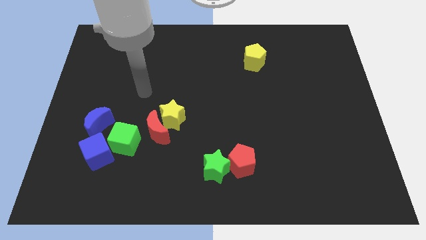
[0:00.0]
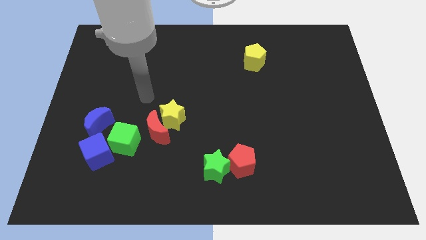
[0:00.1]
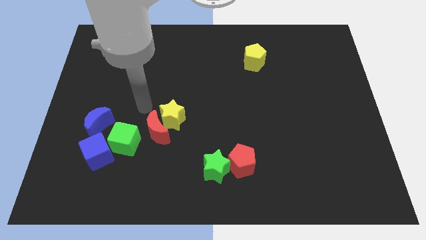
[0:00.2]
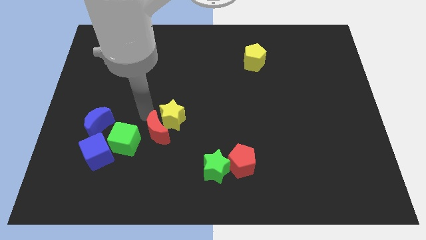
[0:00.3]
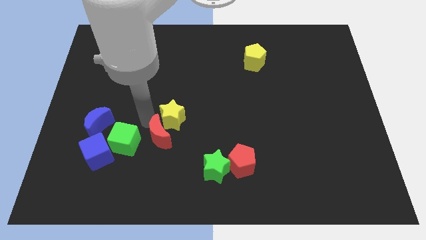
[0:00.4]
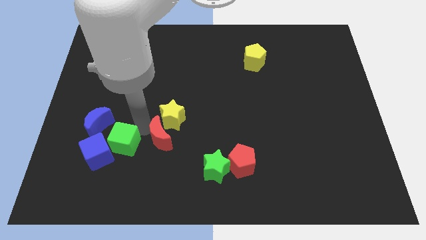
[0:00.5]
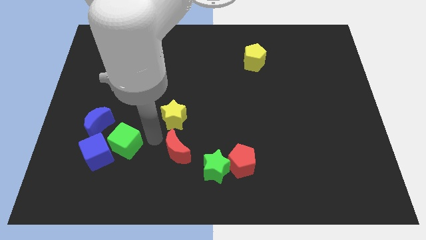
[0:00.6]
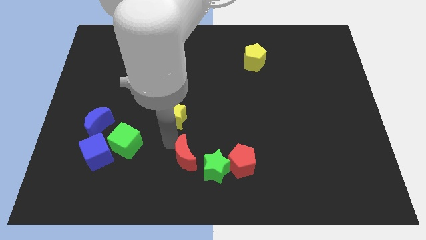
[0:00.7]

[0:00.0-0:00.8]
pull the yellow star apart from the red moon

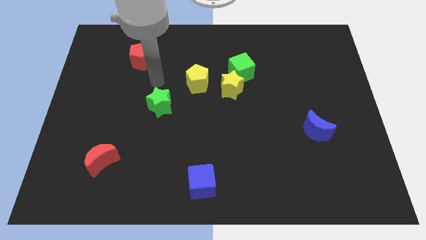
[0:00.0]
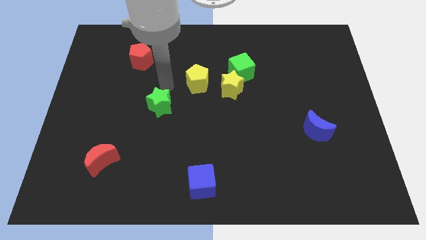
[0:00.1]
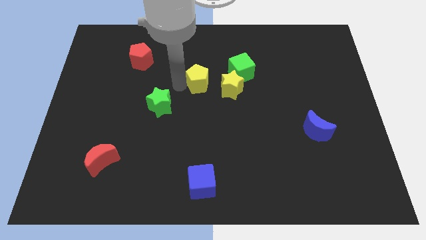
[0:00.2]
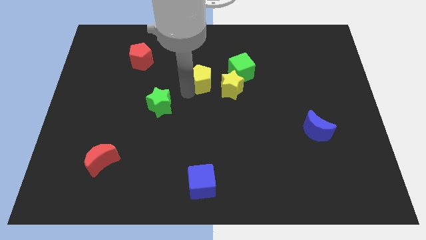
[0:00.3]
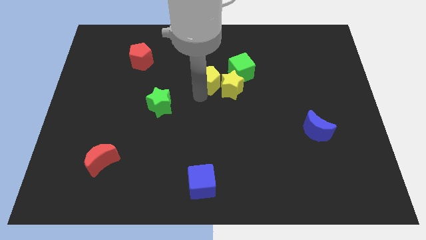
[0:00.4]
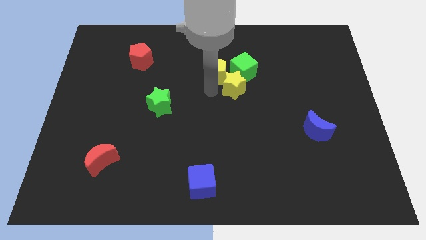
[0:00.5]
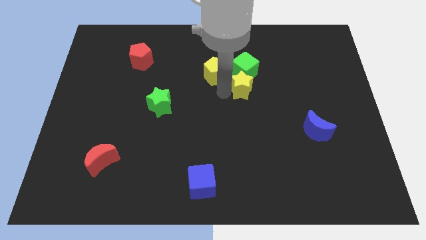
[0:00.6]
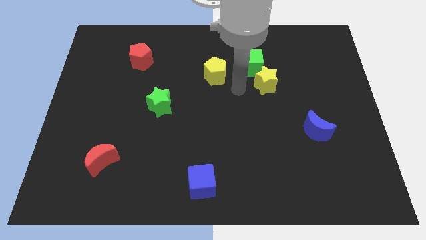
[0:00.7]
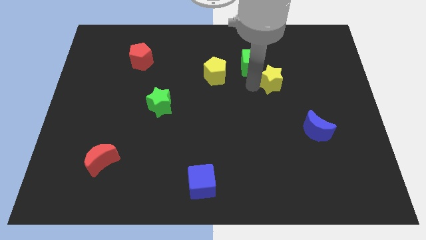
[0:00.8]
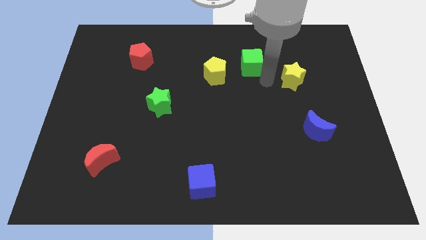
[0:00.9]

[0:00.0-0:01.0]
pull the green cube apart from the yellow star

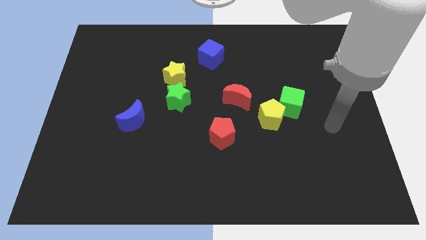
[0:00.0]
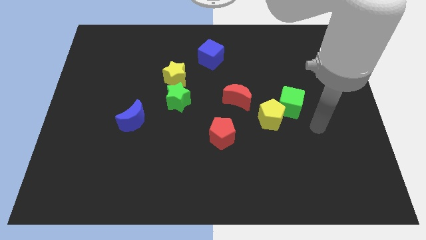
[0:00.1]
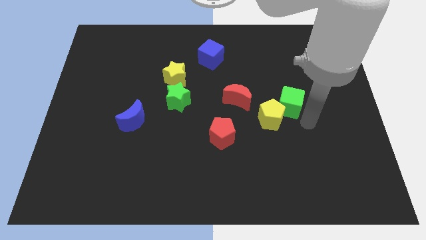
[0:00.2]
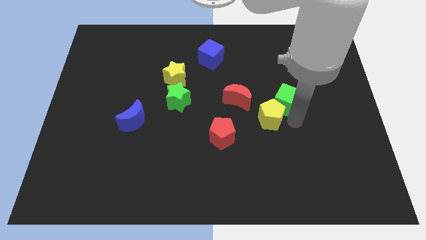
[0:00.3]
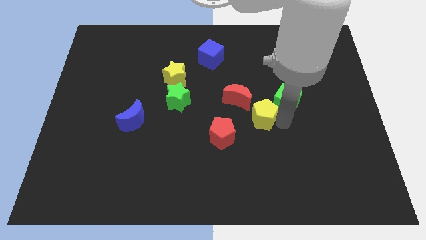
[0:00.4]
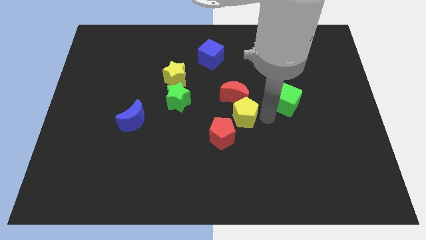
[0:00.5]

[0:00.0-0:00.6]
move the green cube away from the yellow pentagon

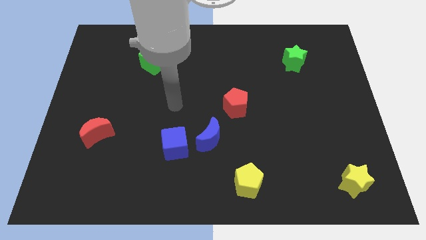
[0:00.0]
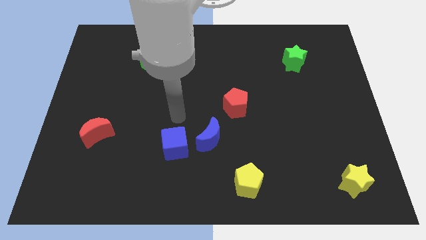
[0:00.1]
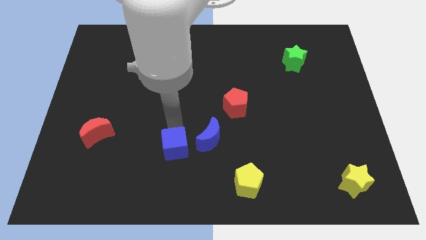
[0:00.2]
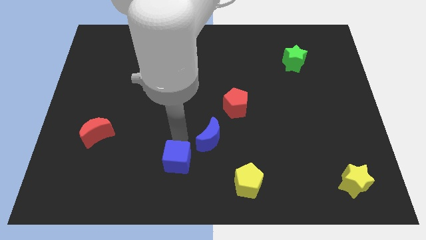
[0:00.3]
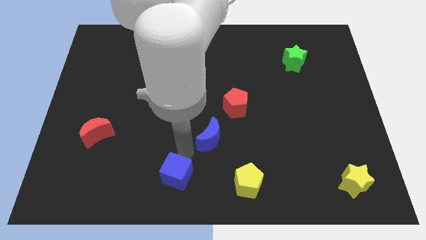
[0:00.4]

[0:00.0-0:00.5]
pull the blue moon apart from the blue cube

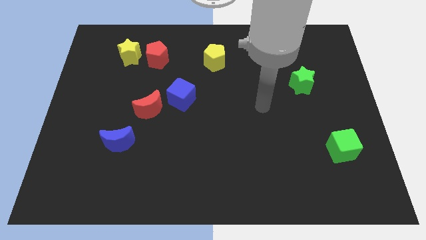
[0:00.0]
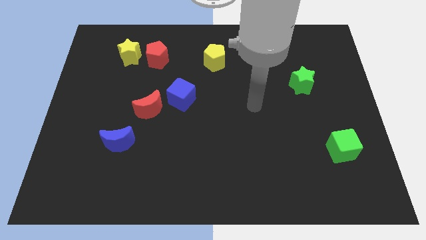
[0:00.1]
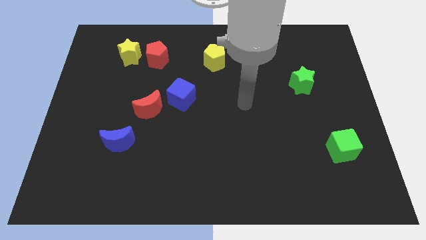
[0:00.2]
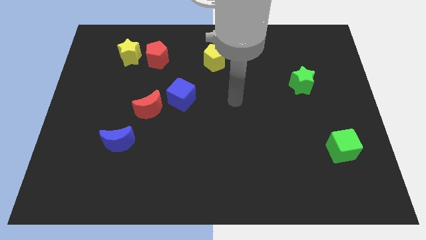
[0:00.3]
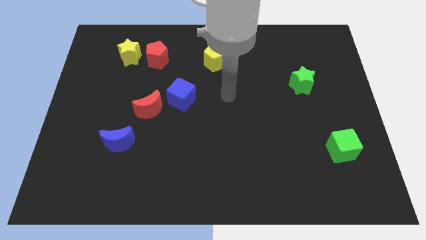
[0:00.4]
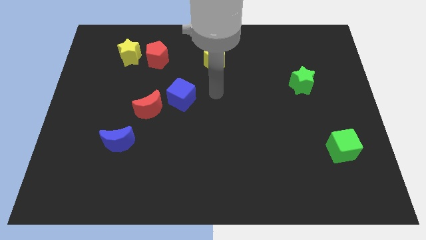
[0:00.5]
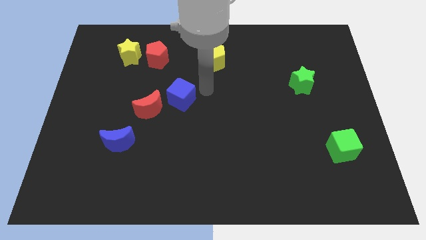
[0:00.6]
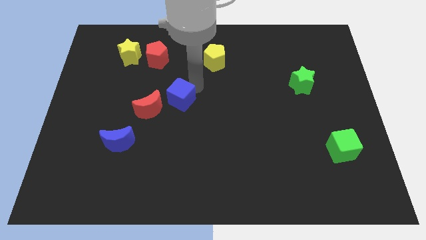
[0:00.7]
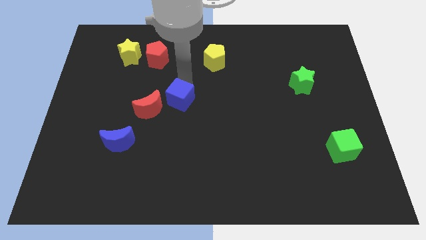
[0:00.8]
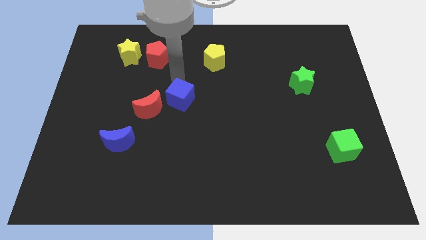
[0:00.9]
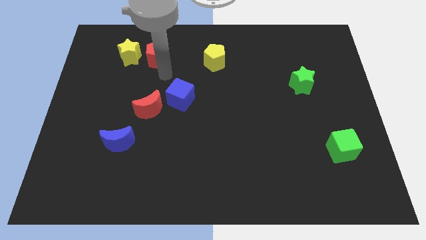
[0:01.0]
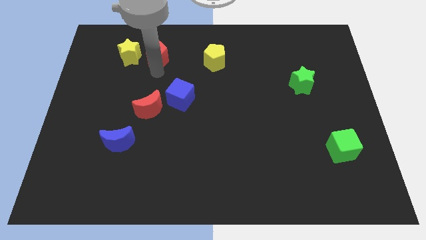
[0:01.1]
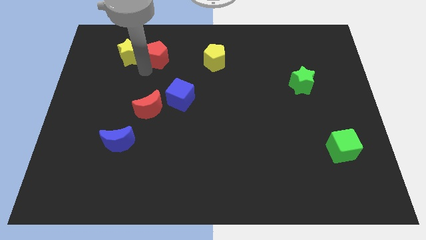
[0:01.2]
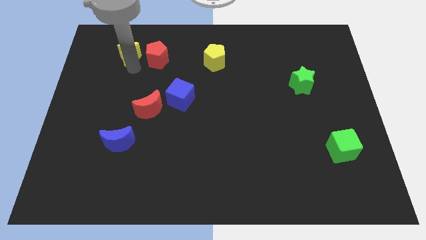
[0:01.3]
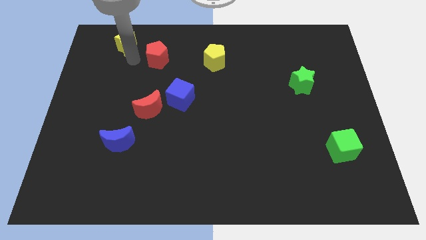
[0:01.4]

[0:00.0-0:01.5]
separate the red pentagon from the yellow star

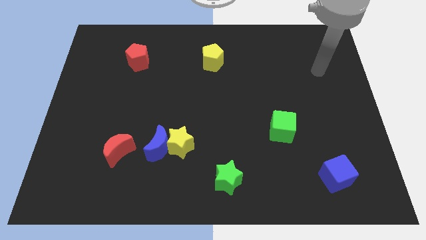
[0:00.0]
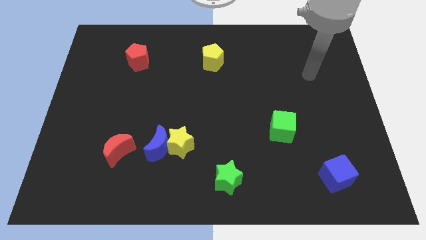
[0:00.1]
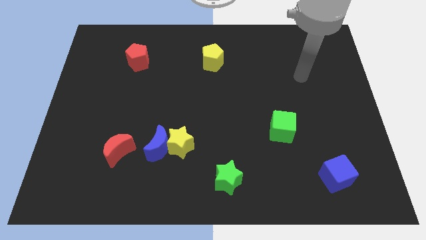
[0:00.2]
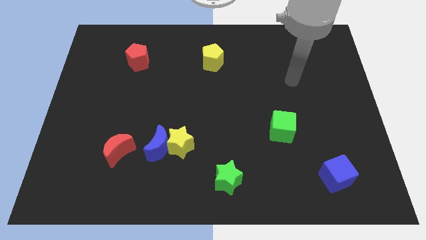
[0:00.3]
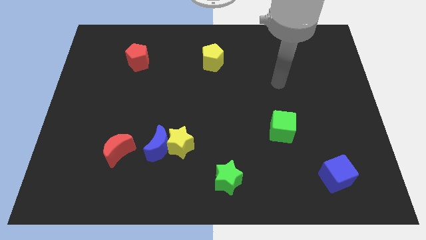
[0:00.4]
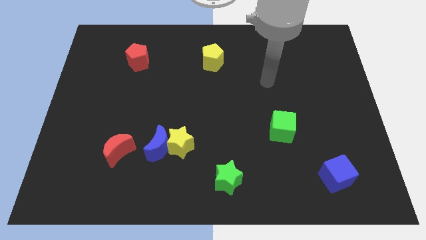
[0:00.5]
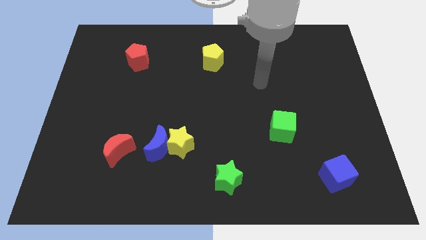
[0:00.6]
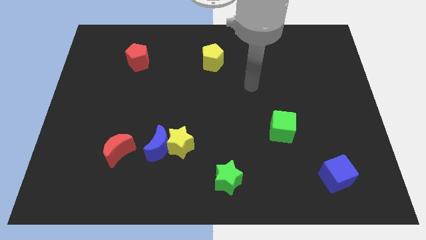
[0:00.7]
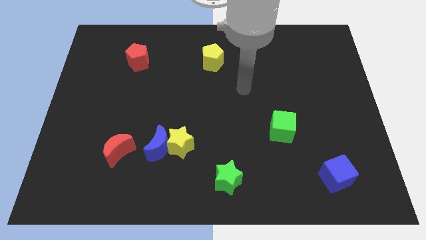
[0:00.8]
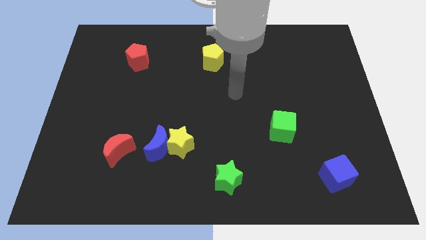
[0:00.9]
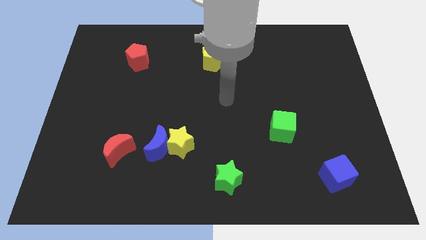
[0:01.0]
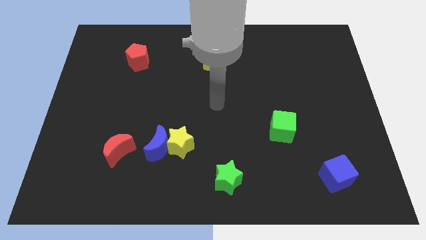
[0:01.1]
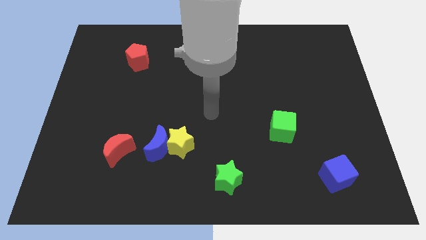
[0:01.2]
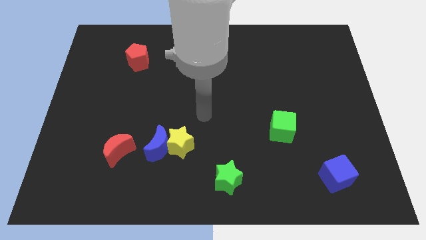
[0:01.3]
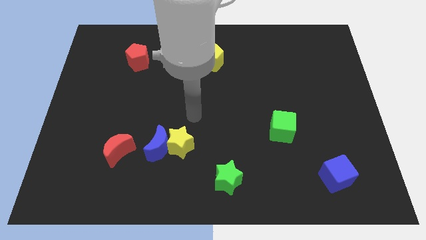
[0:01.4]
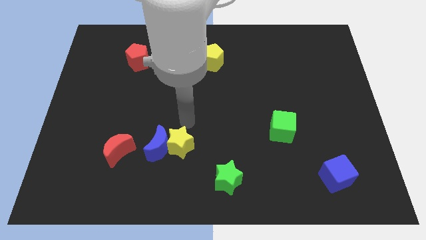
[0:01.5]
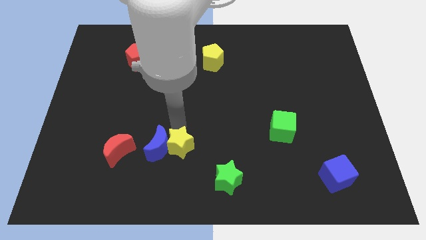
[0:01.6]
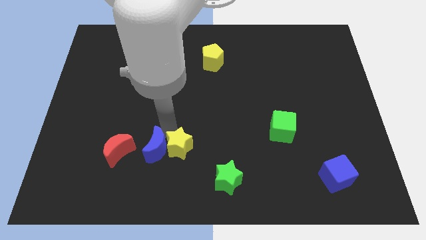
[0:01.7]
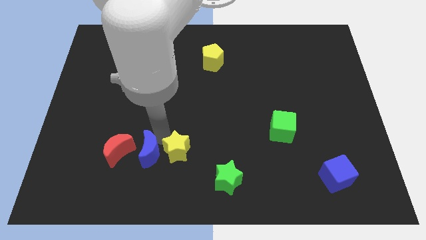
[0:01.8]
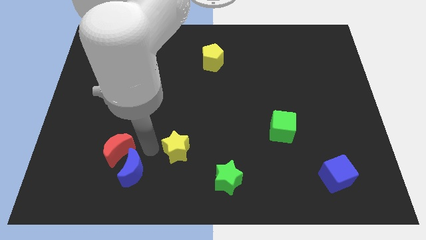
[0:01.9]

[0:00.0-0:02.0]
move the yellow star away from the blue moon

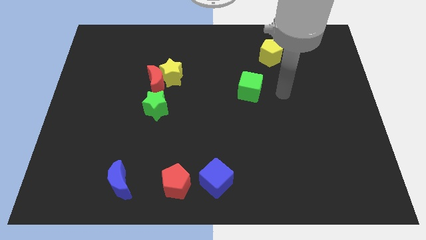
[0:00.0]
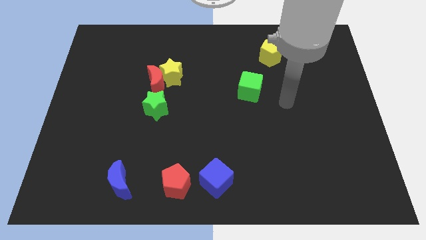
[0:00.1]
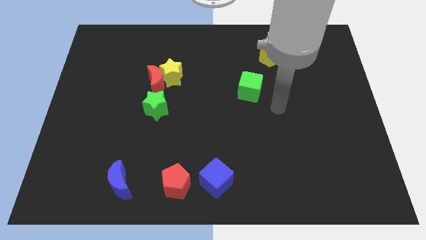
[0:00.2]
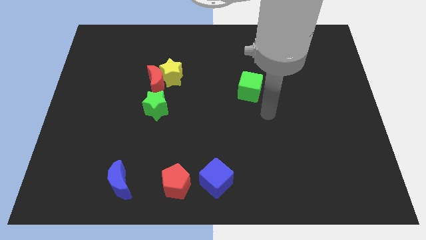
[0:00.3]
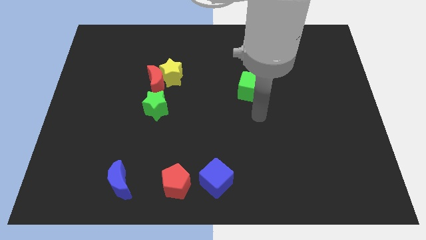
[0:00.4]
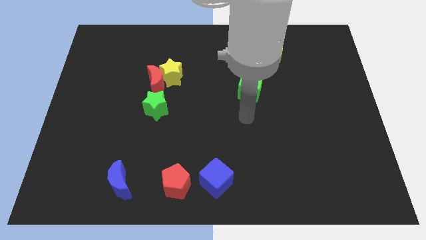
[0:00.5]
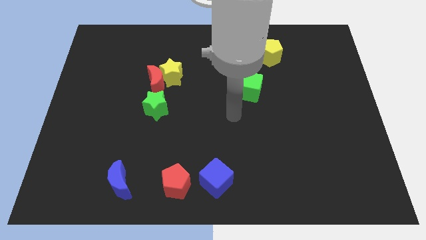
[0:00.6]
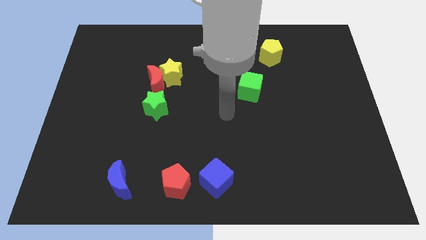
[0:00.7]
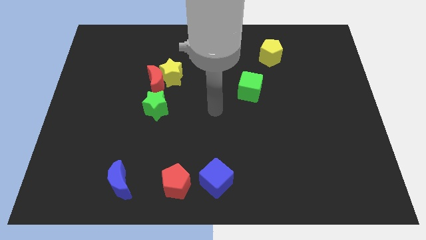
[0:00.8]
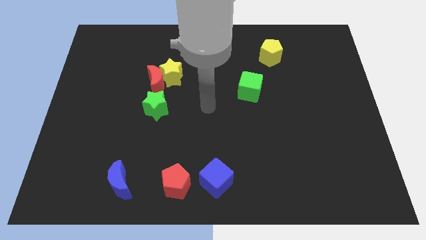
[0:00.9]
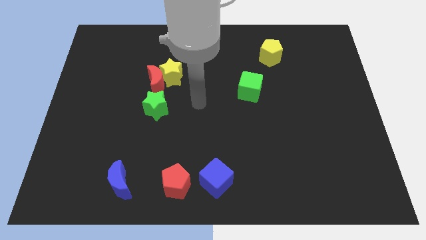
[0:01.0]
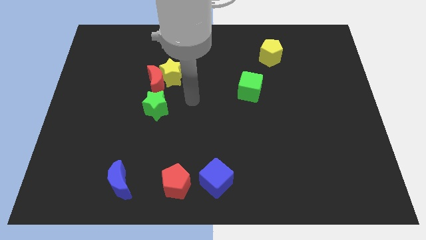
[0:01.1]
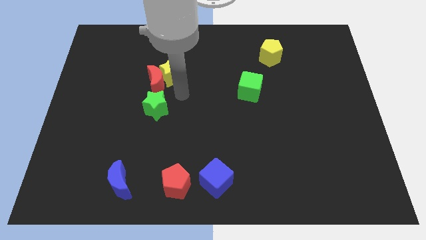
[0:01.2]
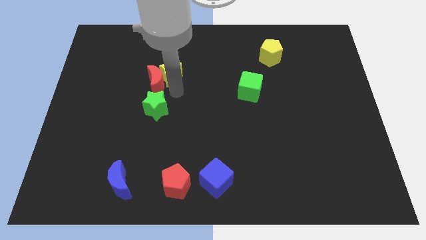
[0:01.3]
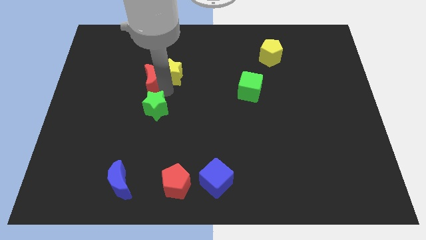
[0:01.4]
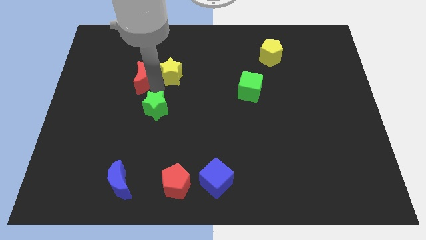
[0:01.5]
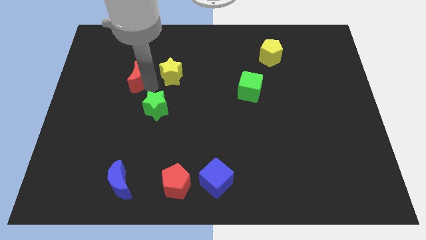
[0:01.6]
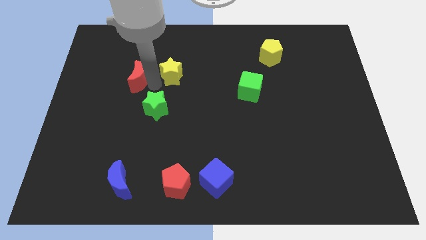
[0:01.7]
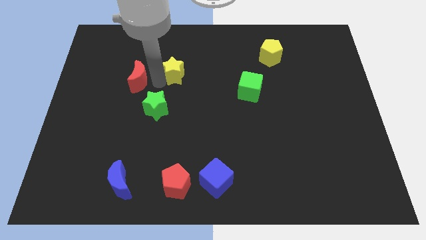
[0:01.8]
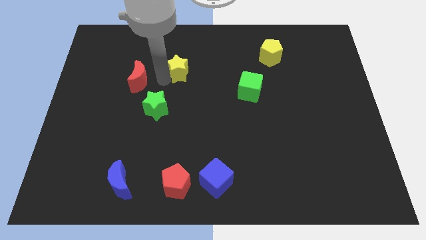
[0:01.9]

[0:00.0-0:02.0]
move the yellow star away from the red moon

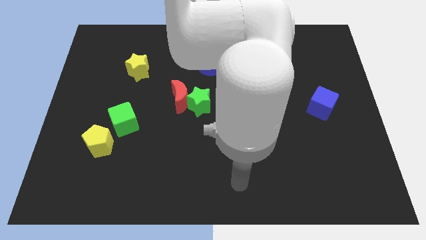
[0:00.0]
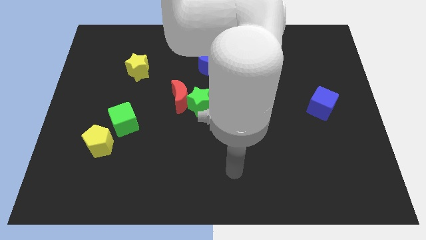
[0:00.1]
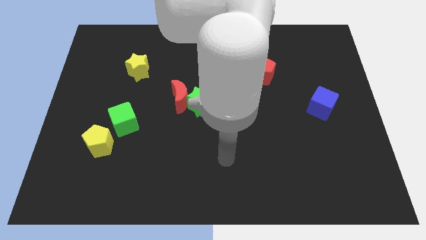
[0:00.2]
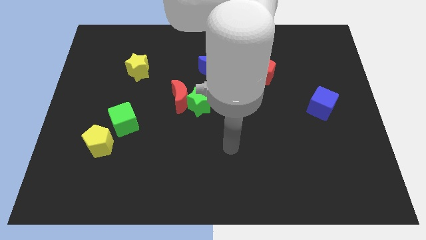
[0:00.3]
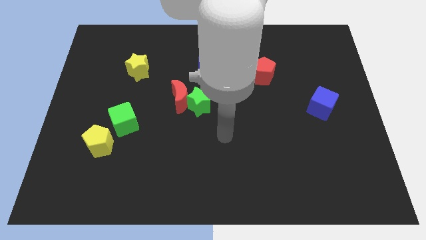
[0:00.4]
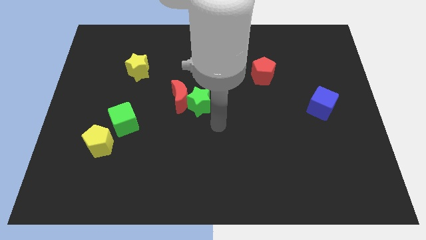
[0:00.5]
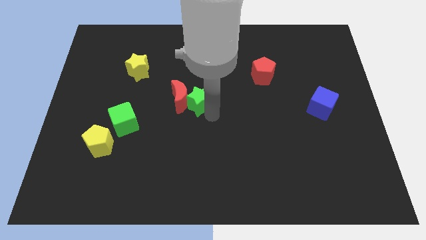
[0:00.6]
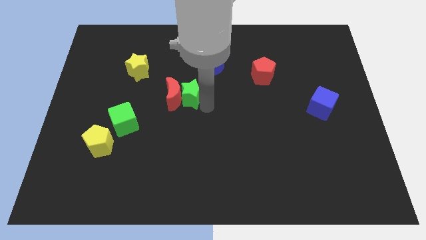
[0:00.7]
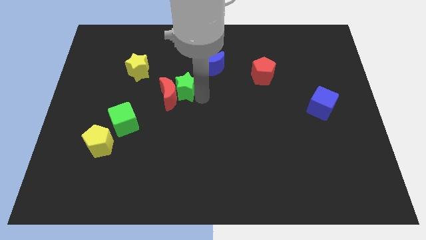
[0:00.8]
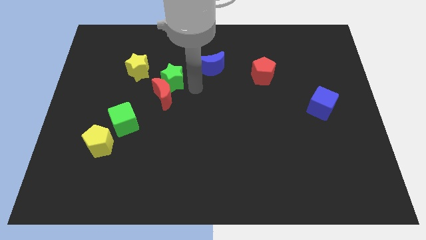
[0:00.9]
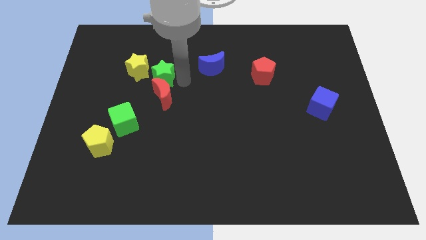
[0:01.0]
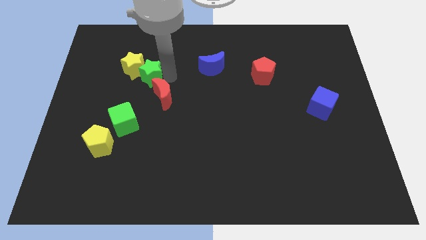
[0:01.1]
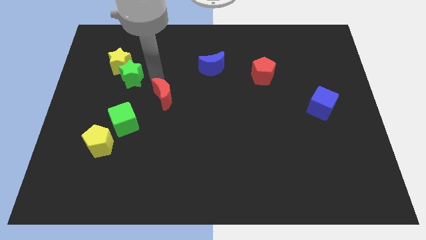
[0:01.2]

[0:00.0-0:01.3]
separate the red moon from the green star
